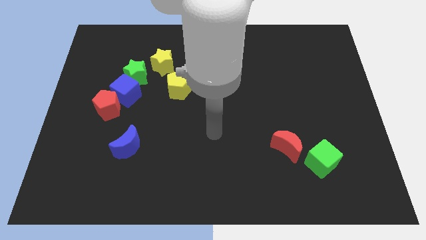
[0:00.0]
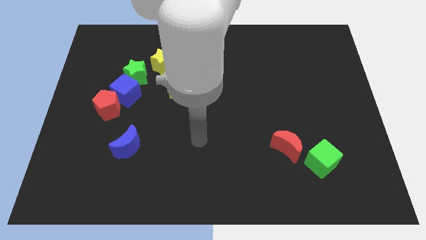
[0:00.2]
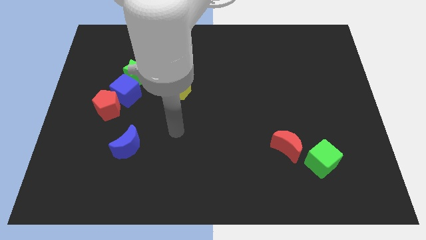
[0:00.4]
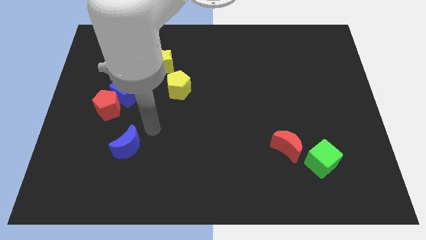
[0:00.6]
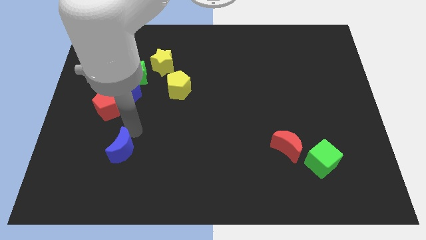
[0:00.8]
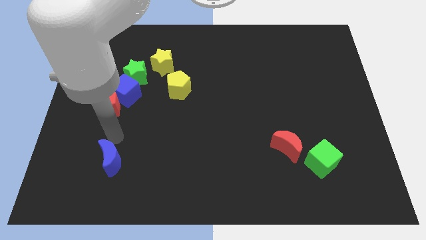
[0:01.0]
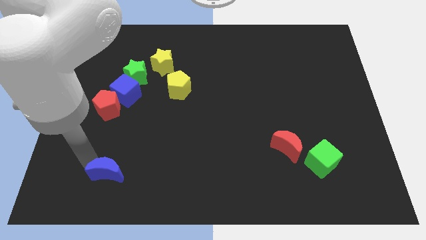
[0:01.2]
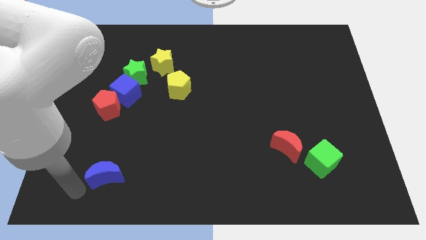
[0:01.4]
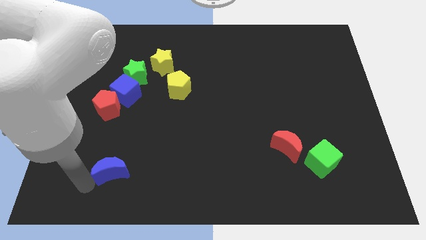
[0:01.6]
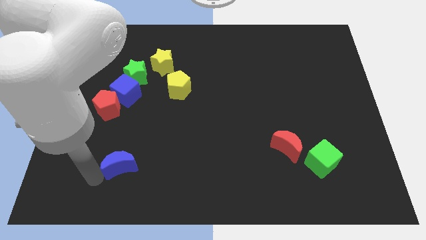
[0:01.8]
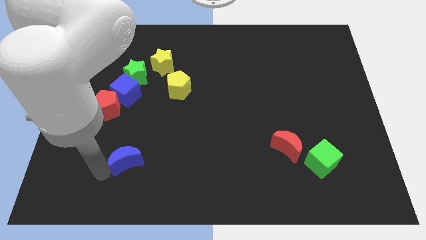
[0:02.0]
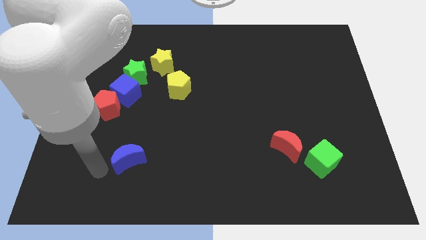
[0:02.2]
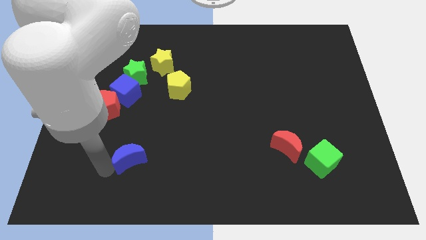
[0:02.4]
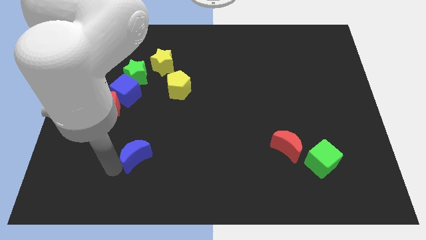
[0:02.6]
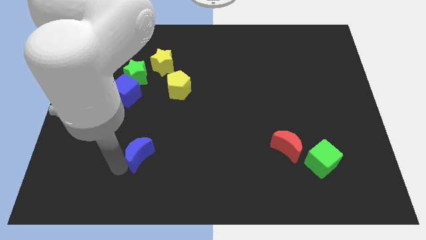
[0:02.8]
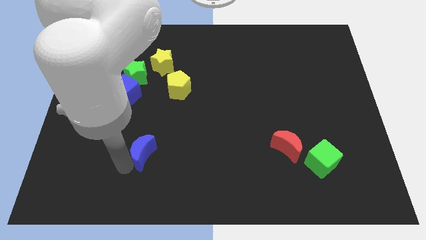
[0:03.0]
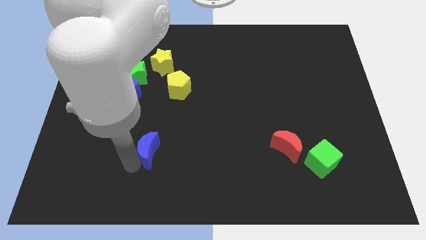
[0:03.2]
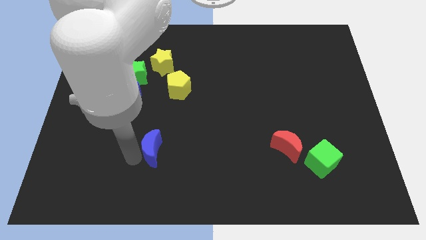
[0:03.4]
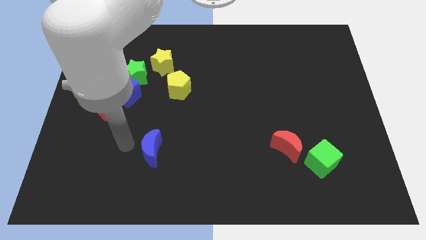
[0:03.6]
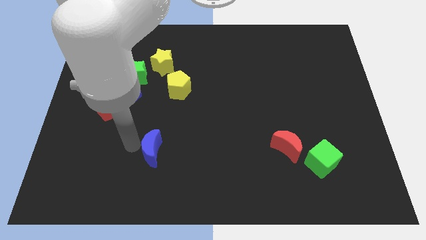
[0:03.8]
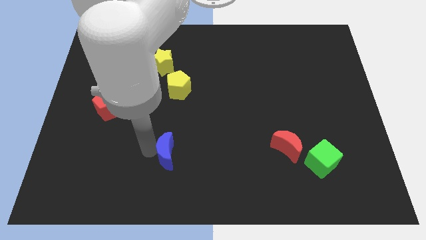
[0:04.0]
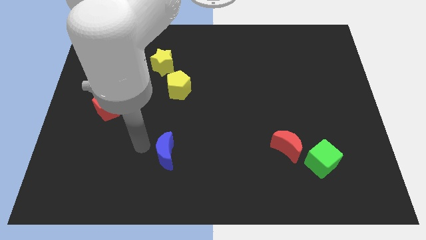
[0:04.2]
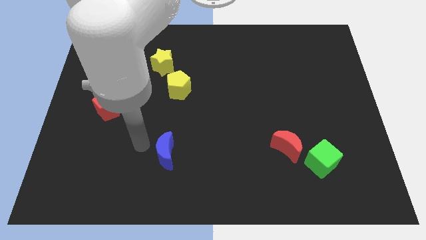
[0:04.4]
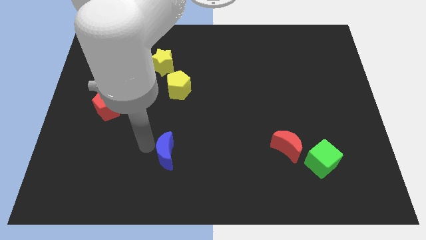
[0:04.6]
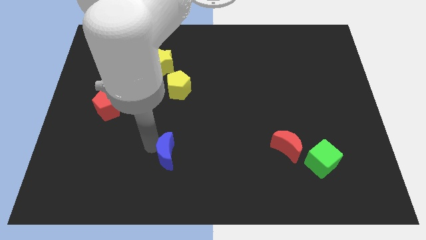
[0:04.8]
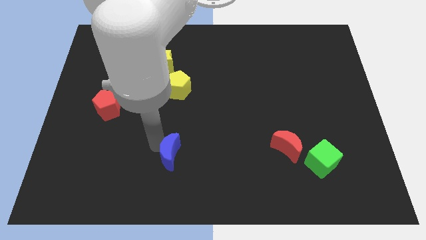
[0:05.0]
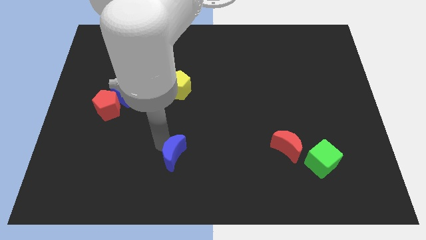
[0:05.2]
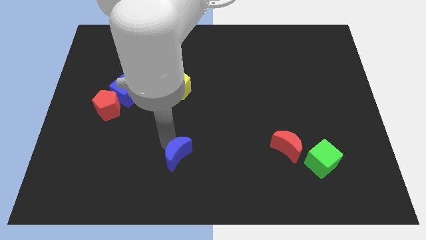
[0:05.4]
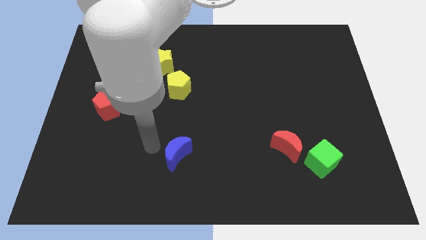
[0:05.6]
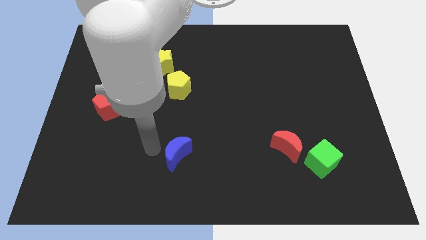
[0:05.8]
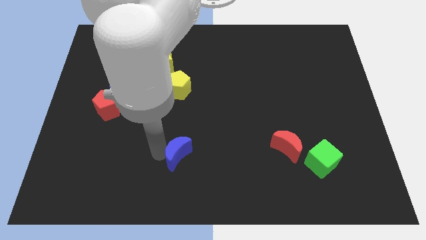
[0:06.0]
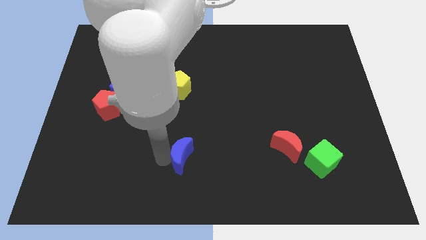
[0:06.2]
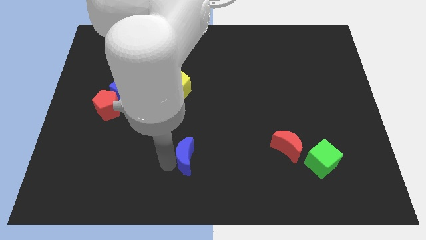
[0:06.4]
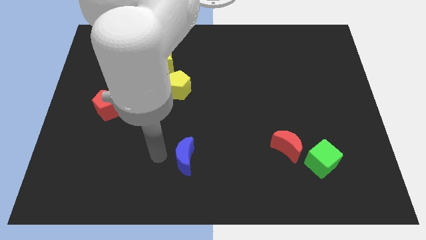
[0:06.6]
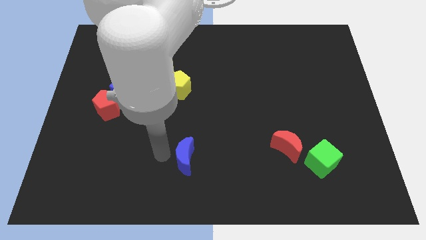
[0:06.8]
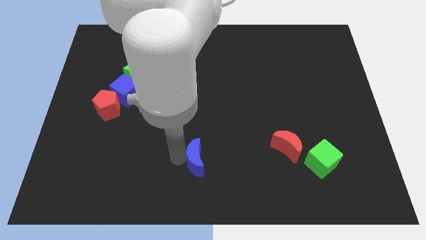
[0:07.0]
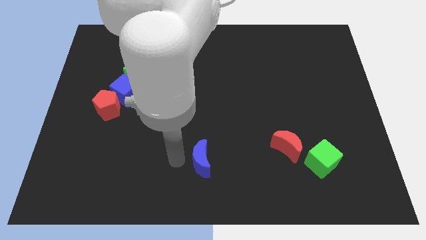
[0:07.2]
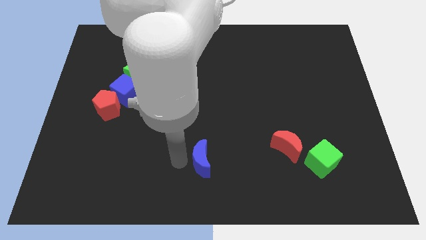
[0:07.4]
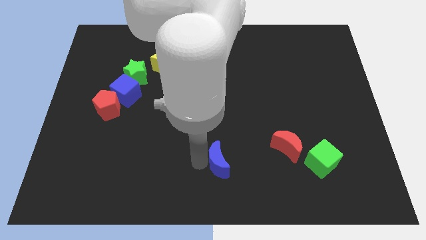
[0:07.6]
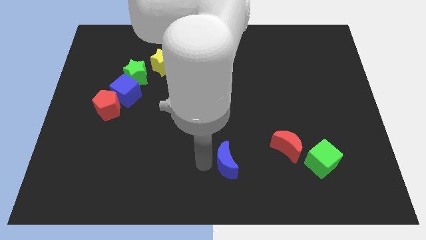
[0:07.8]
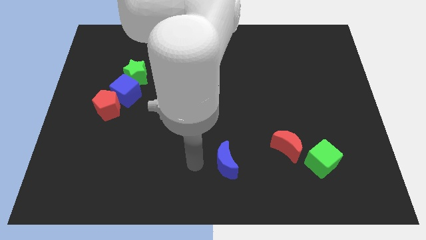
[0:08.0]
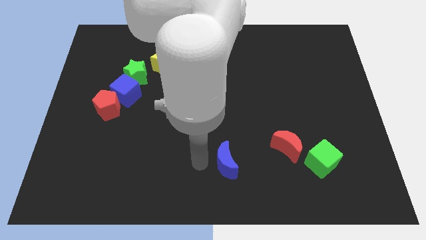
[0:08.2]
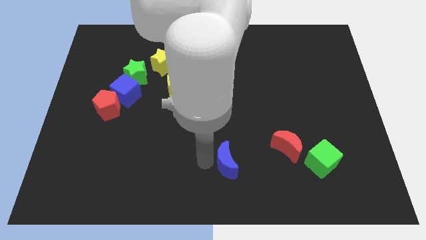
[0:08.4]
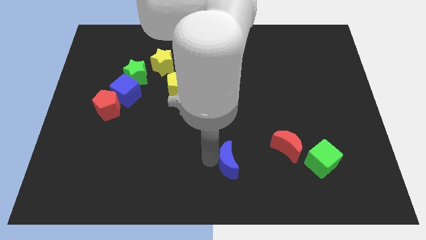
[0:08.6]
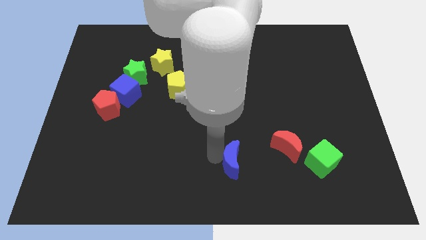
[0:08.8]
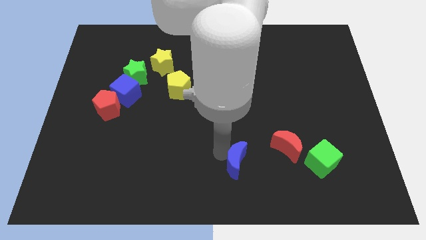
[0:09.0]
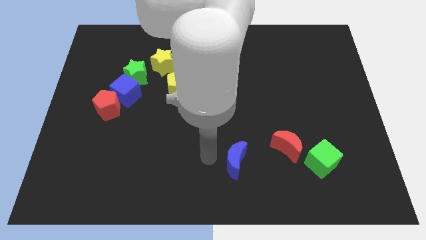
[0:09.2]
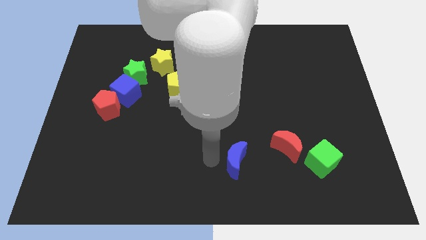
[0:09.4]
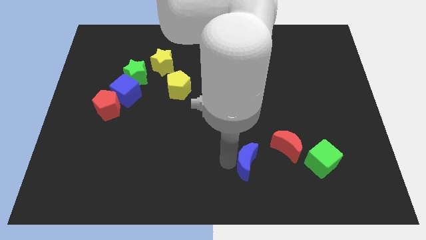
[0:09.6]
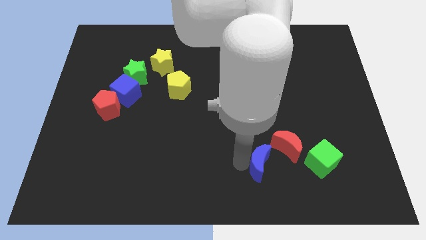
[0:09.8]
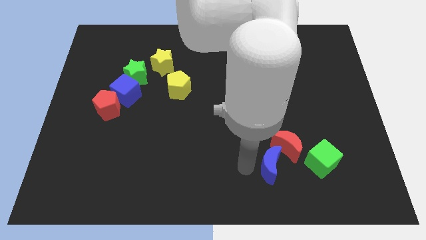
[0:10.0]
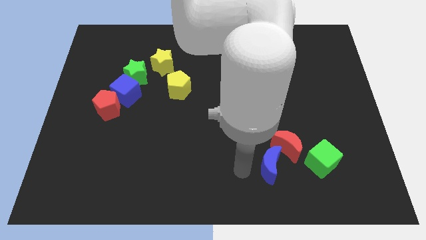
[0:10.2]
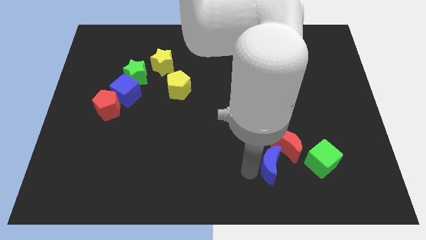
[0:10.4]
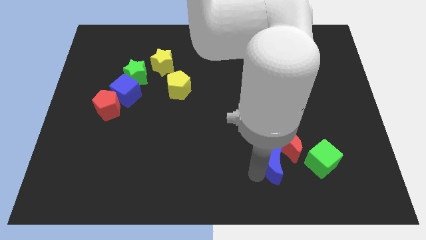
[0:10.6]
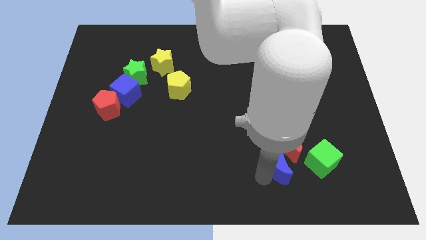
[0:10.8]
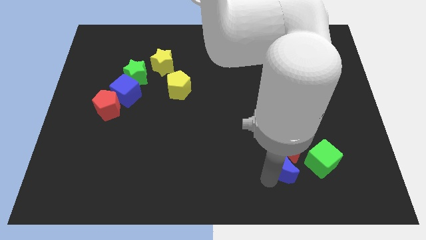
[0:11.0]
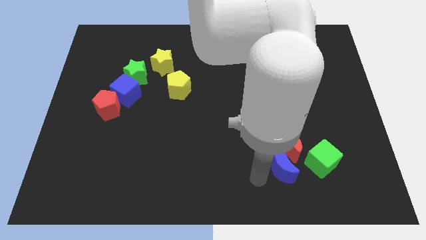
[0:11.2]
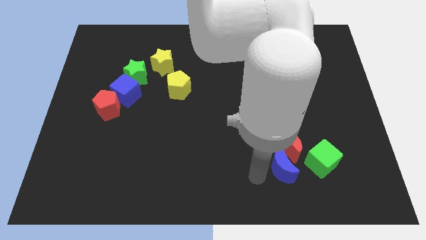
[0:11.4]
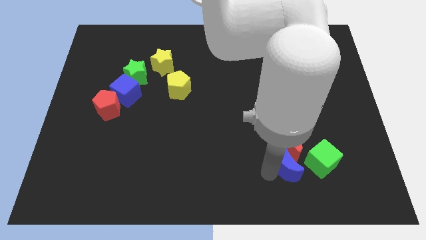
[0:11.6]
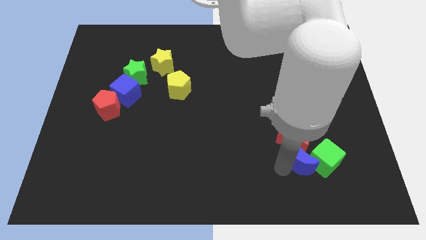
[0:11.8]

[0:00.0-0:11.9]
slide the blue moon close to the green cube
